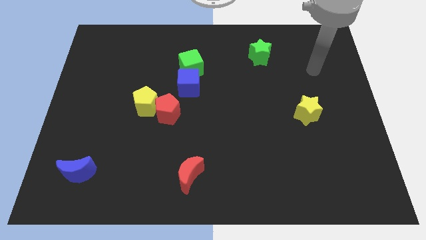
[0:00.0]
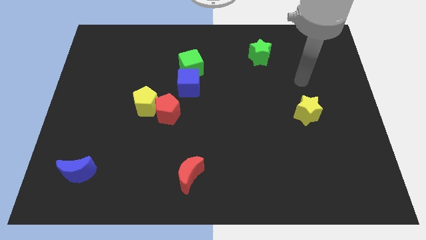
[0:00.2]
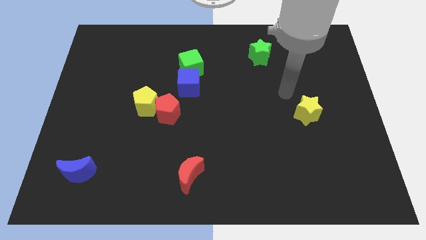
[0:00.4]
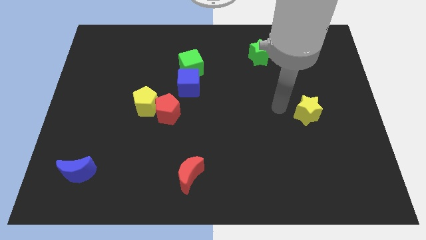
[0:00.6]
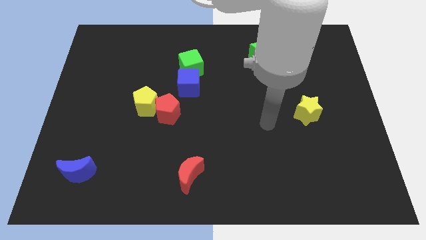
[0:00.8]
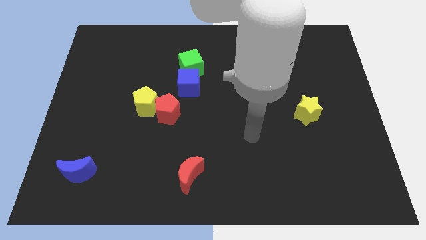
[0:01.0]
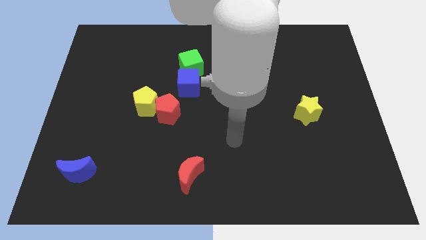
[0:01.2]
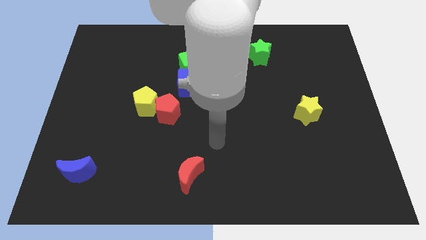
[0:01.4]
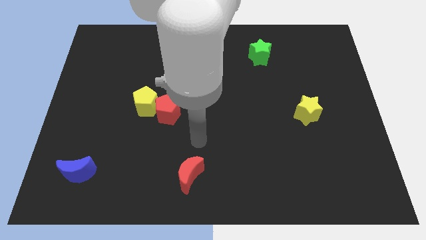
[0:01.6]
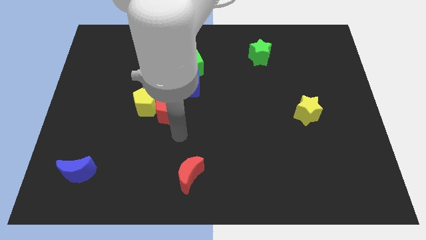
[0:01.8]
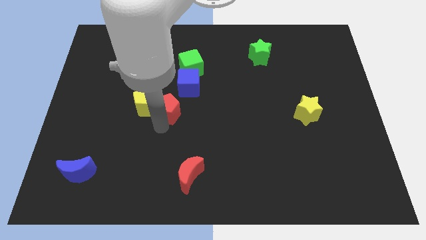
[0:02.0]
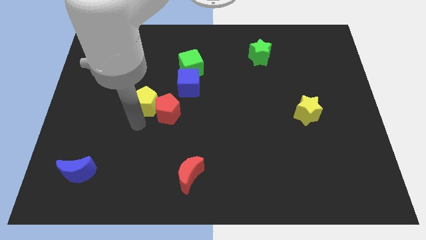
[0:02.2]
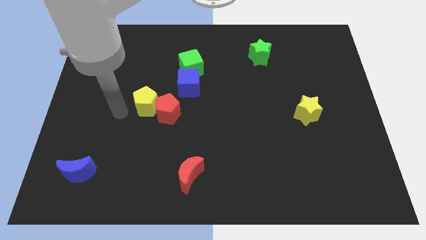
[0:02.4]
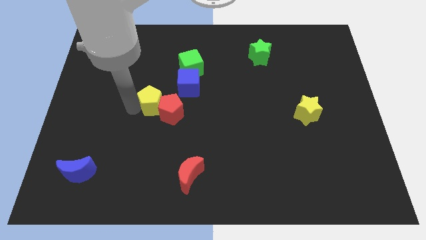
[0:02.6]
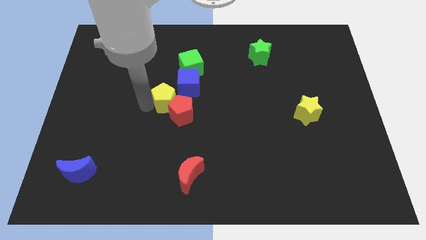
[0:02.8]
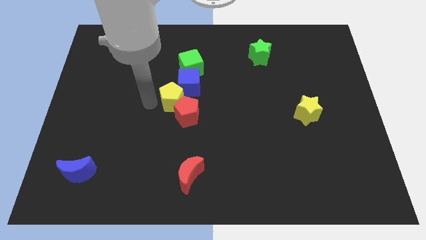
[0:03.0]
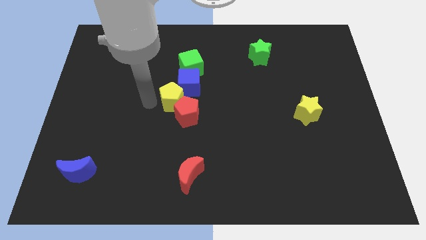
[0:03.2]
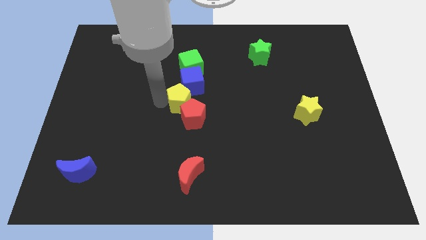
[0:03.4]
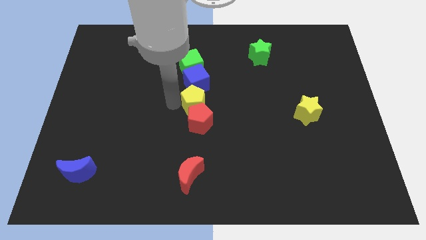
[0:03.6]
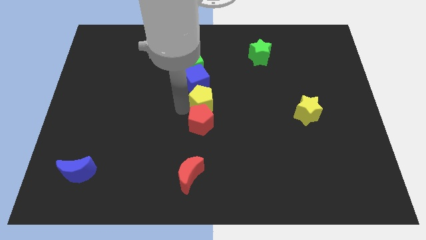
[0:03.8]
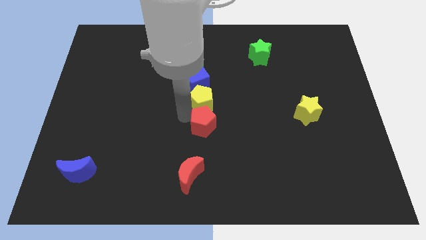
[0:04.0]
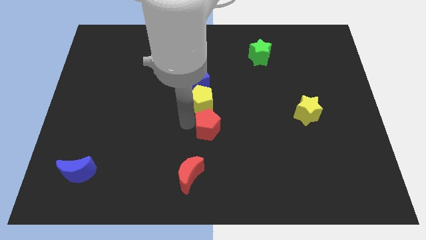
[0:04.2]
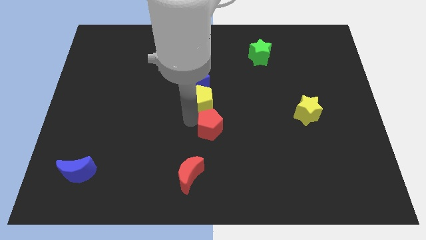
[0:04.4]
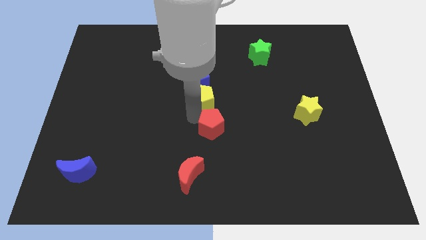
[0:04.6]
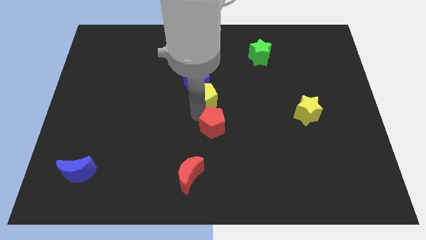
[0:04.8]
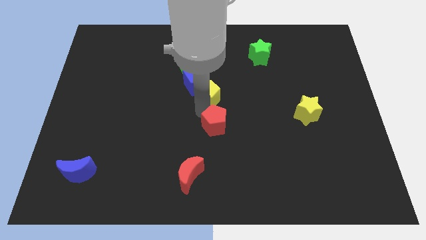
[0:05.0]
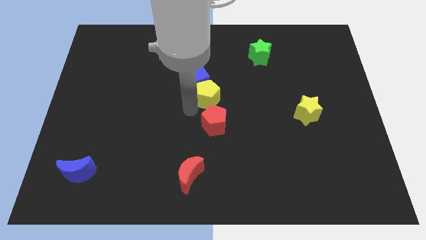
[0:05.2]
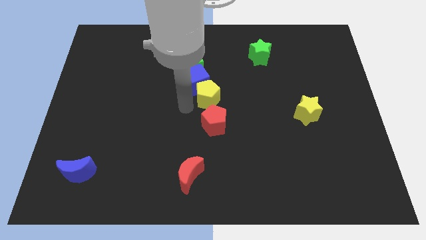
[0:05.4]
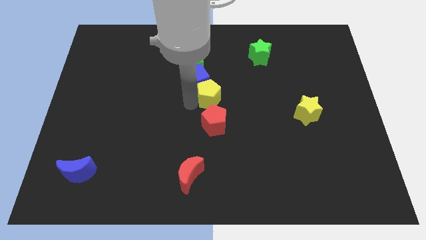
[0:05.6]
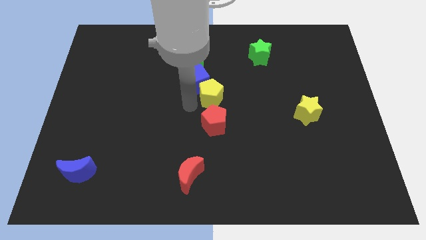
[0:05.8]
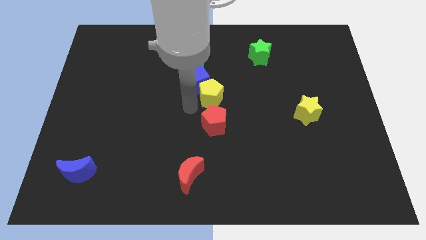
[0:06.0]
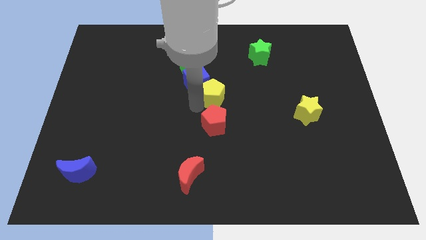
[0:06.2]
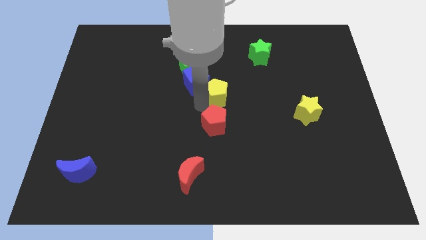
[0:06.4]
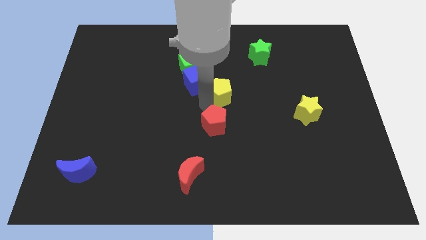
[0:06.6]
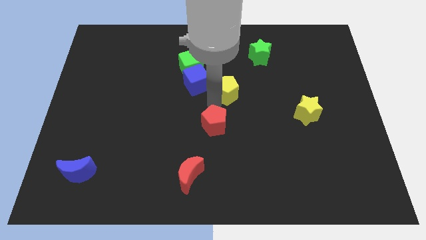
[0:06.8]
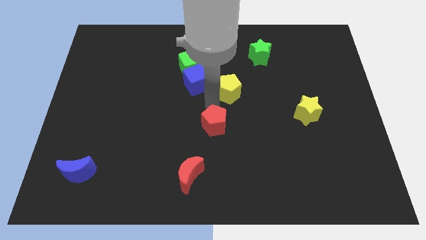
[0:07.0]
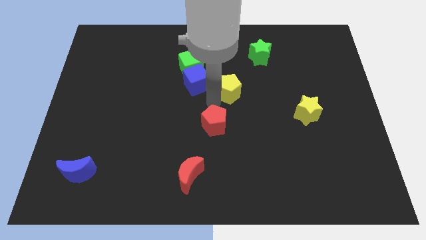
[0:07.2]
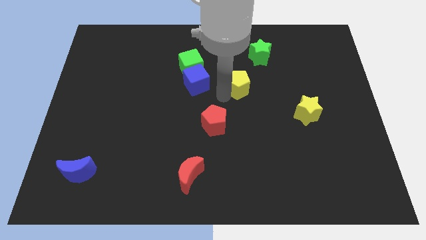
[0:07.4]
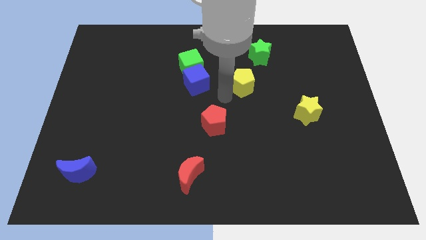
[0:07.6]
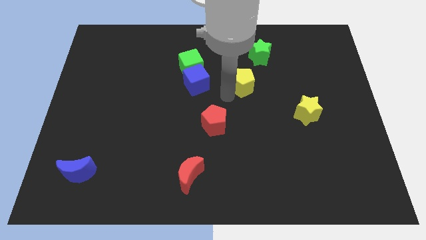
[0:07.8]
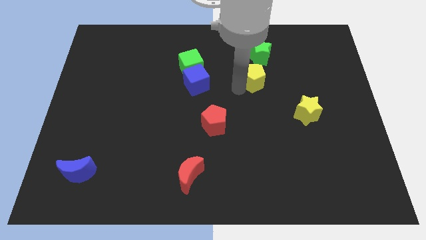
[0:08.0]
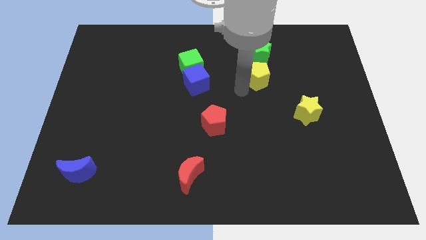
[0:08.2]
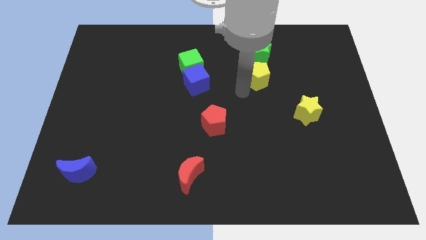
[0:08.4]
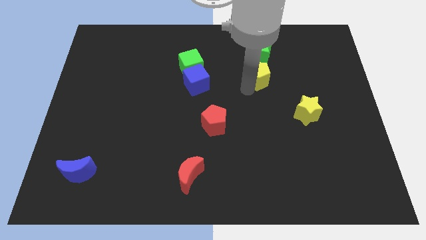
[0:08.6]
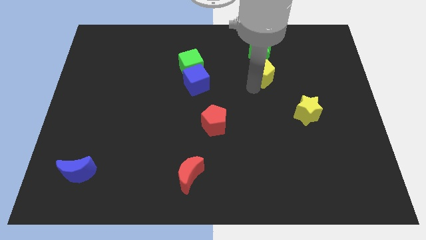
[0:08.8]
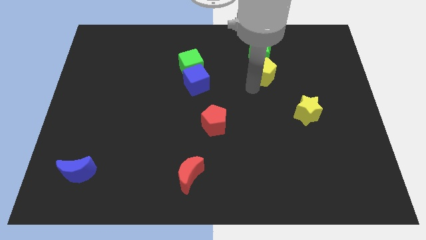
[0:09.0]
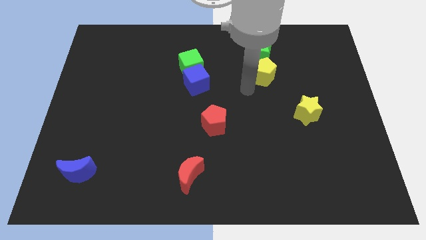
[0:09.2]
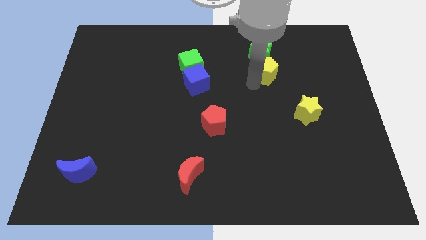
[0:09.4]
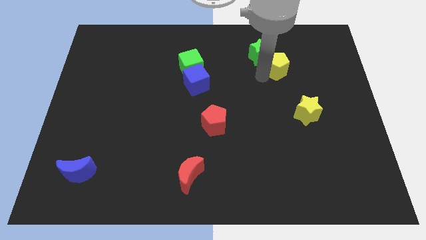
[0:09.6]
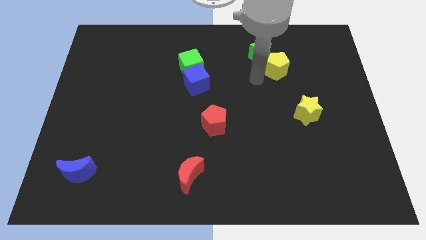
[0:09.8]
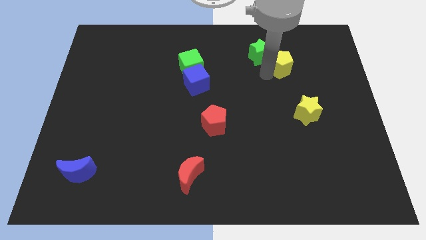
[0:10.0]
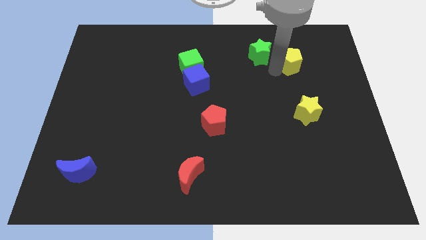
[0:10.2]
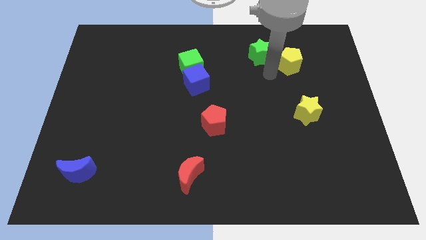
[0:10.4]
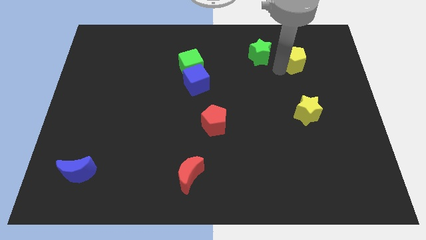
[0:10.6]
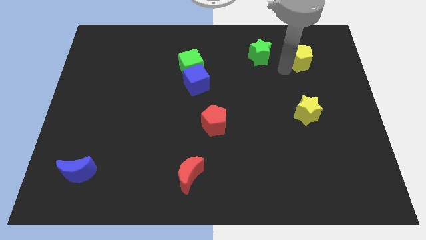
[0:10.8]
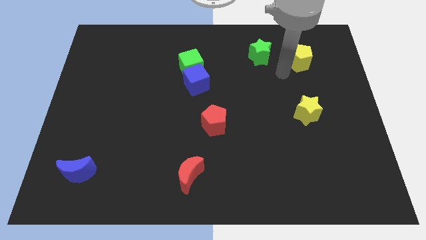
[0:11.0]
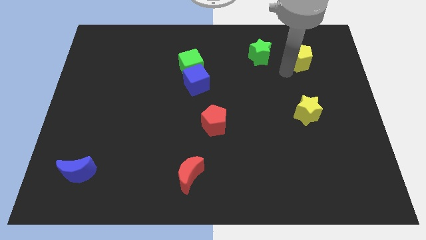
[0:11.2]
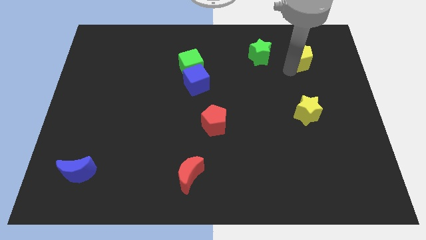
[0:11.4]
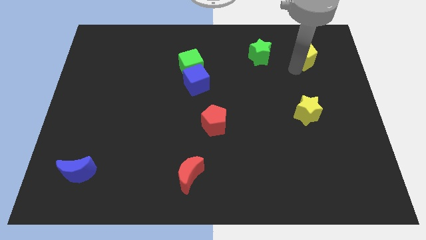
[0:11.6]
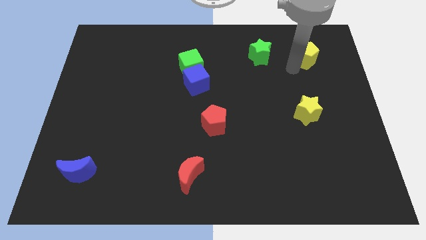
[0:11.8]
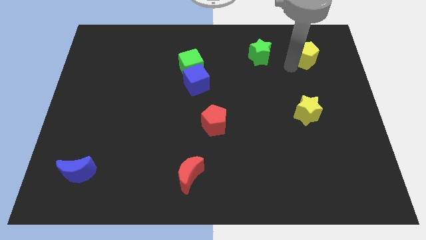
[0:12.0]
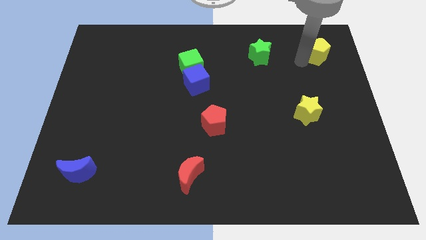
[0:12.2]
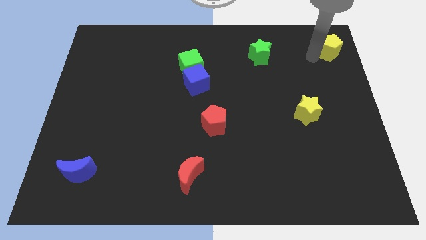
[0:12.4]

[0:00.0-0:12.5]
slide the yellow pentagon to the top right corner
